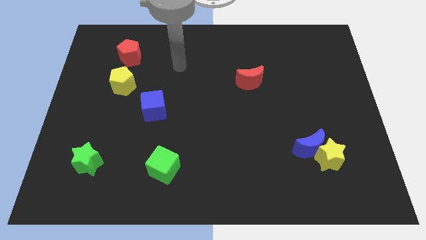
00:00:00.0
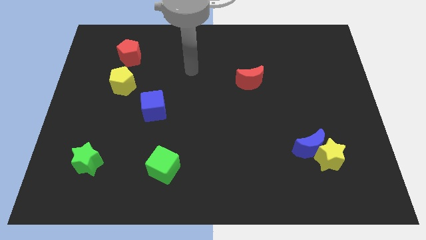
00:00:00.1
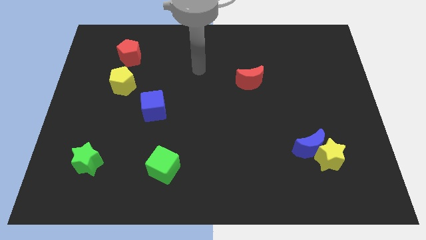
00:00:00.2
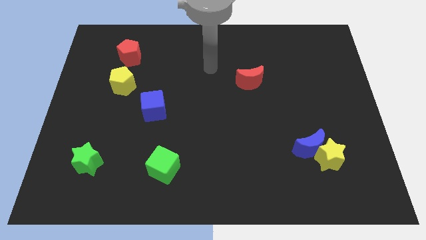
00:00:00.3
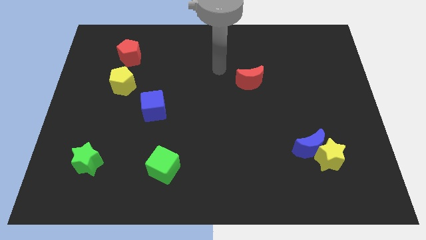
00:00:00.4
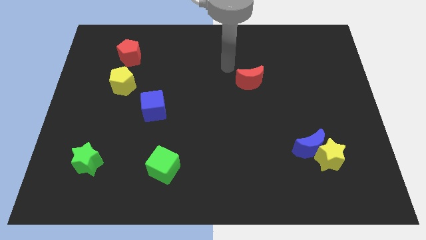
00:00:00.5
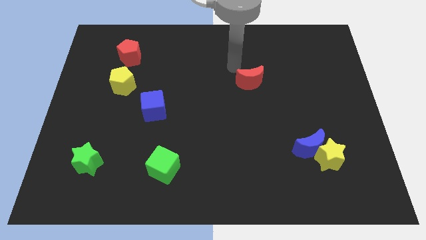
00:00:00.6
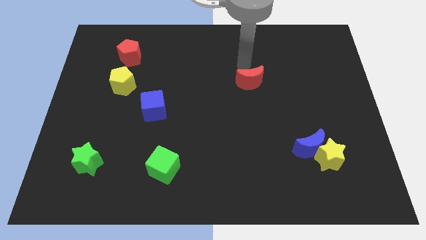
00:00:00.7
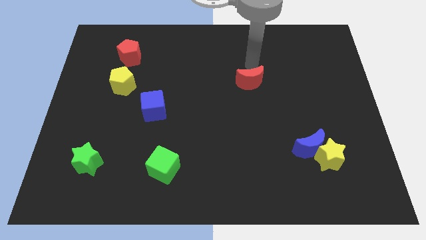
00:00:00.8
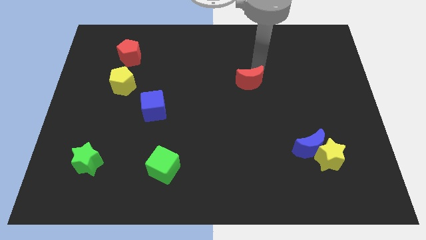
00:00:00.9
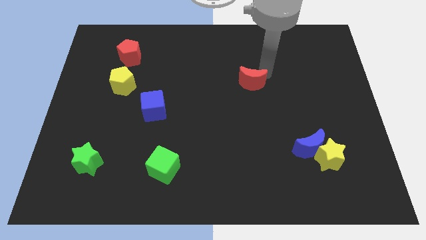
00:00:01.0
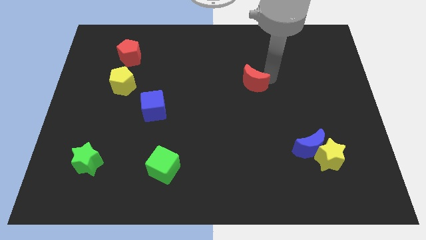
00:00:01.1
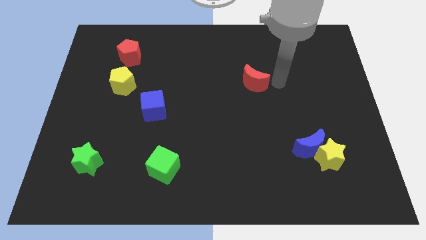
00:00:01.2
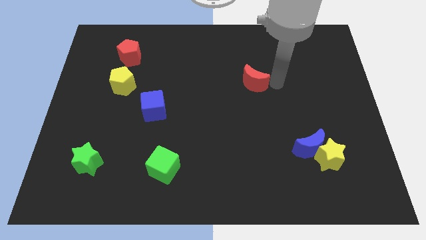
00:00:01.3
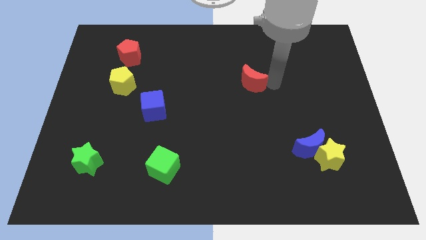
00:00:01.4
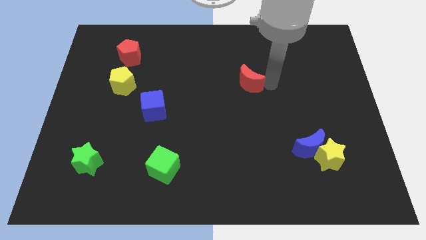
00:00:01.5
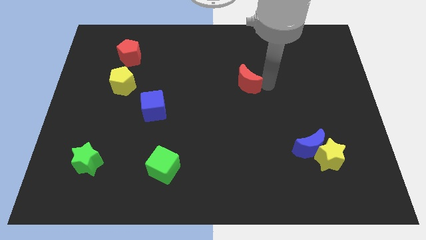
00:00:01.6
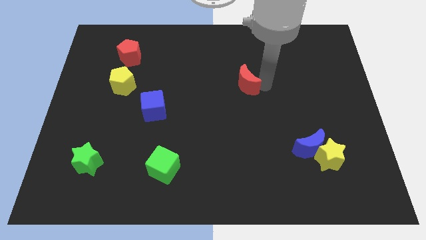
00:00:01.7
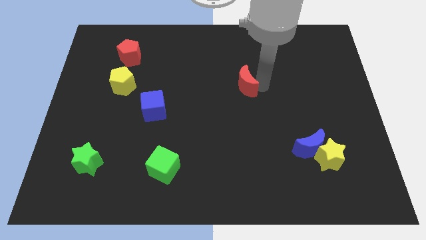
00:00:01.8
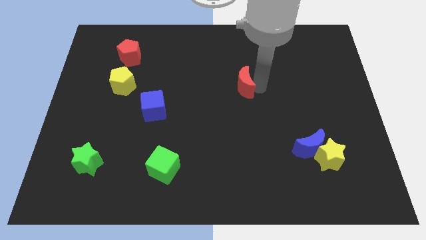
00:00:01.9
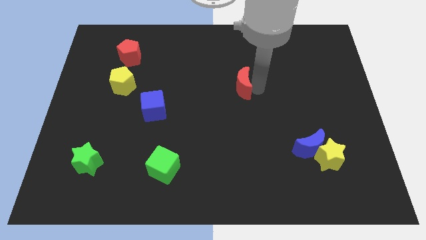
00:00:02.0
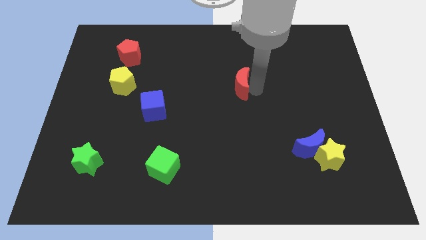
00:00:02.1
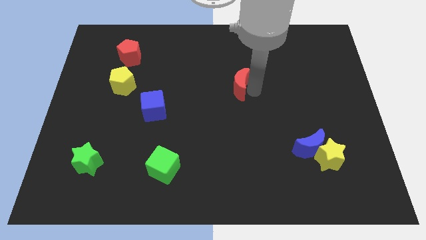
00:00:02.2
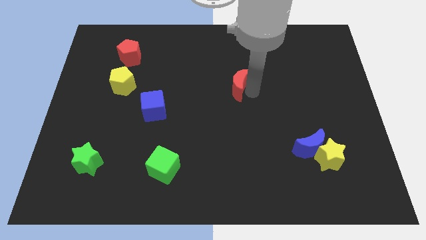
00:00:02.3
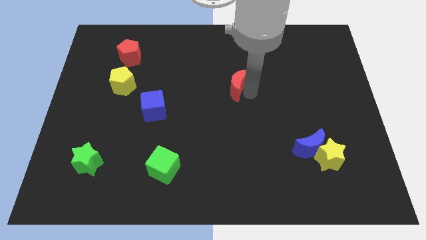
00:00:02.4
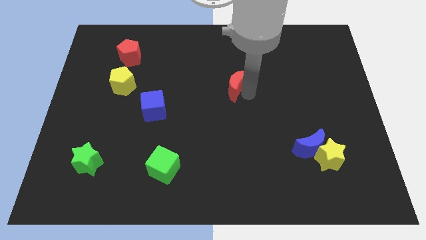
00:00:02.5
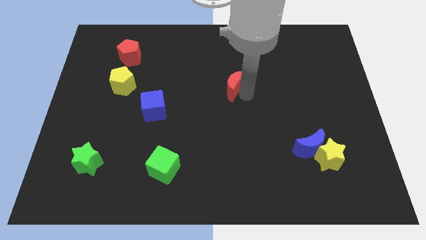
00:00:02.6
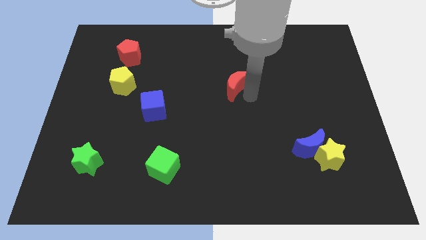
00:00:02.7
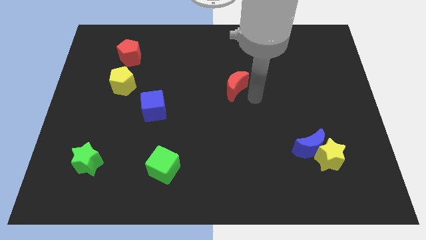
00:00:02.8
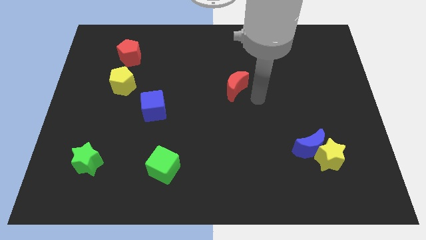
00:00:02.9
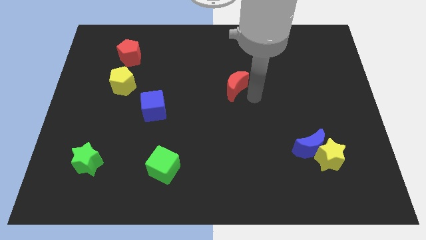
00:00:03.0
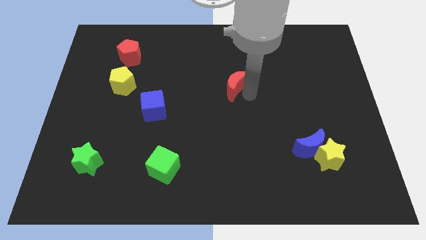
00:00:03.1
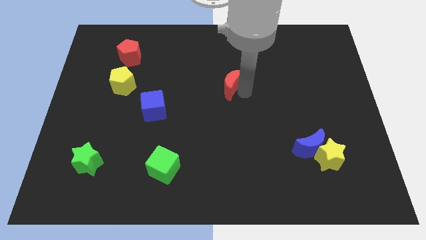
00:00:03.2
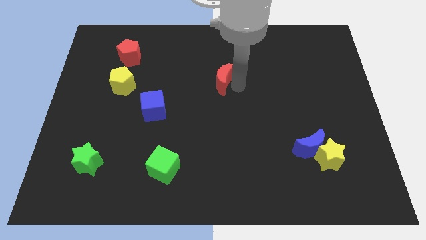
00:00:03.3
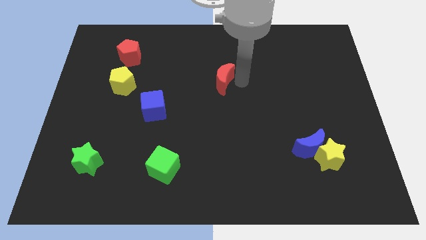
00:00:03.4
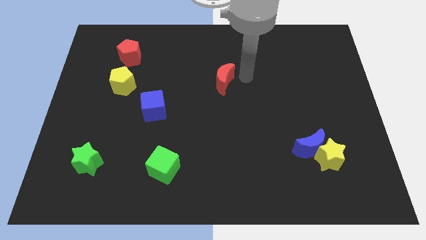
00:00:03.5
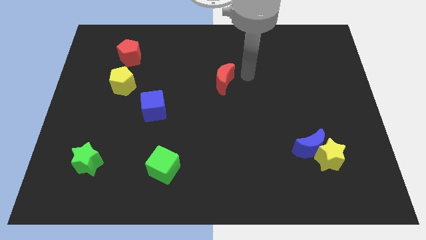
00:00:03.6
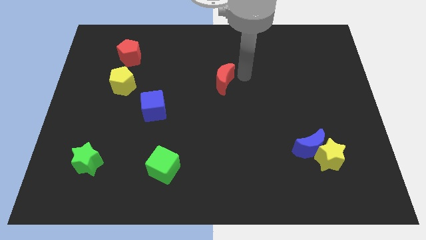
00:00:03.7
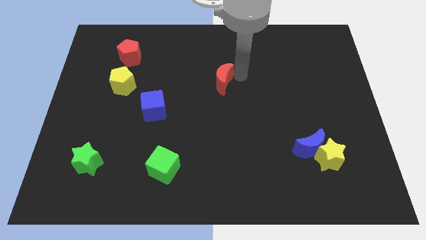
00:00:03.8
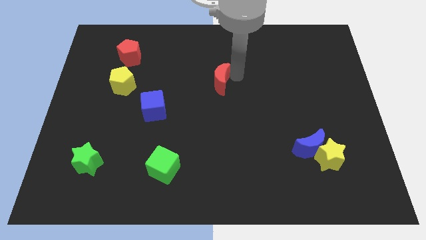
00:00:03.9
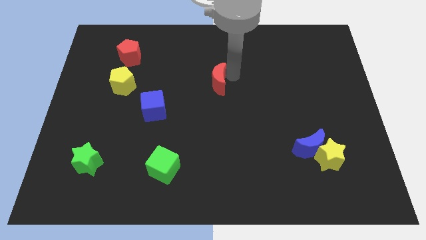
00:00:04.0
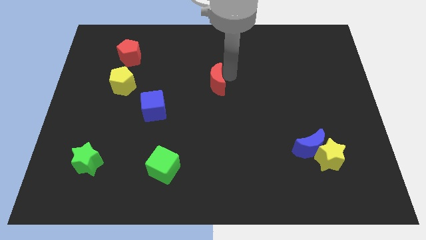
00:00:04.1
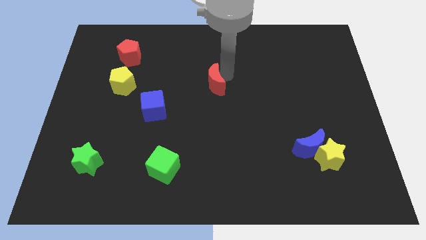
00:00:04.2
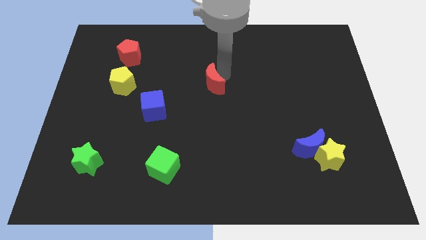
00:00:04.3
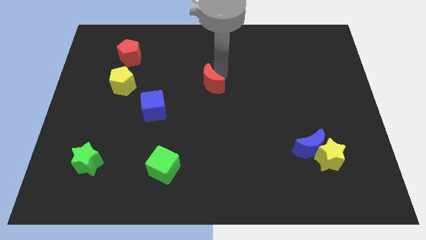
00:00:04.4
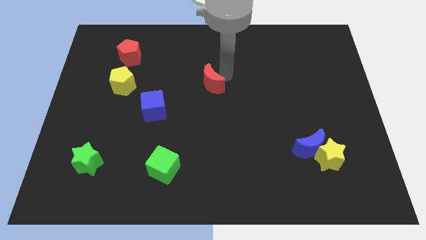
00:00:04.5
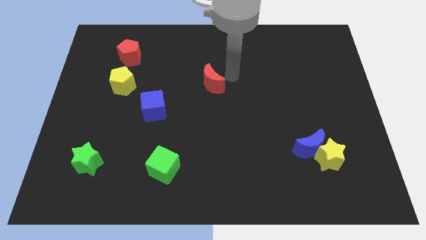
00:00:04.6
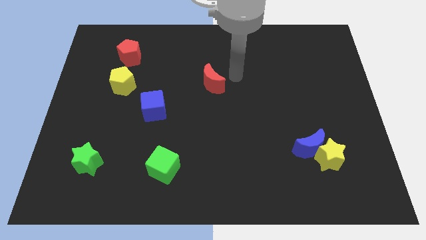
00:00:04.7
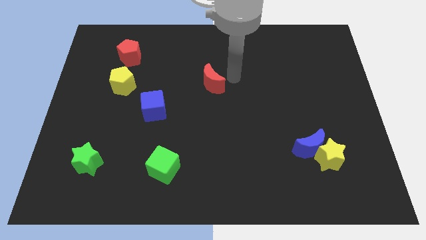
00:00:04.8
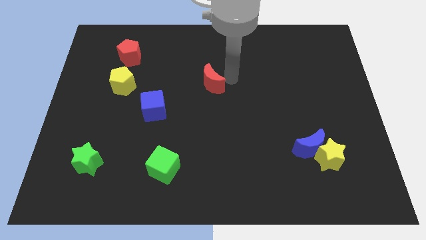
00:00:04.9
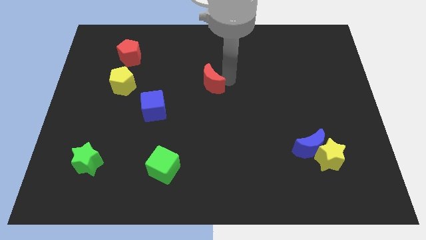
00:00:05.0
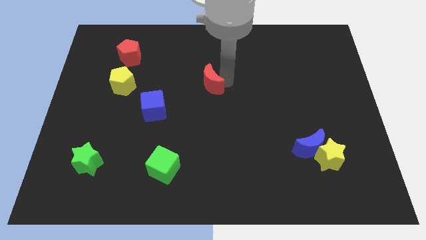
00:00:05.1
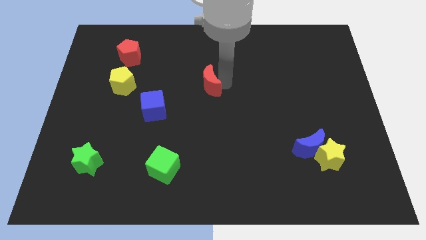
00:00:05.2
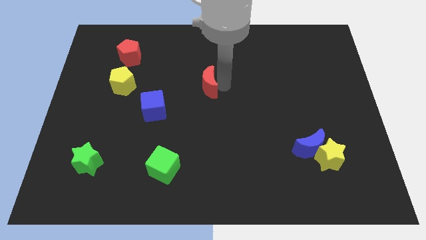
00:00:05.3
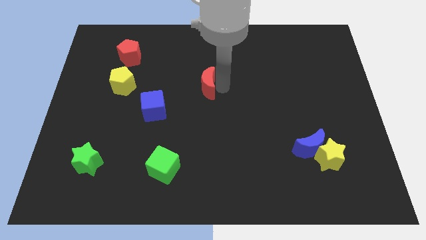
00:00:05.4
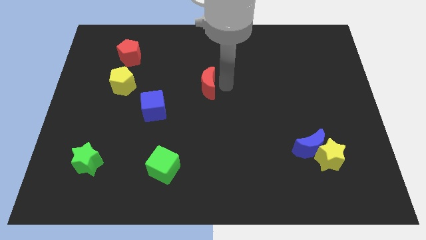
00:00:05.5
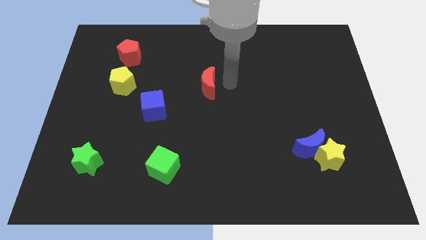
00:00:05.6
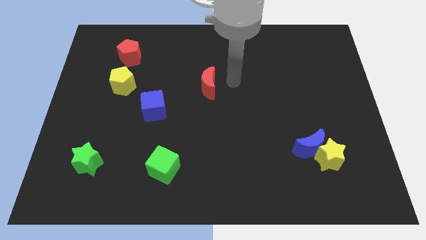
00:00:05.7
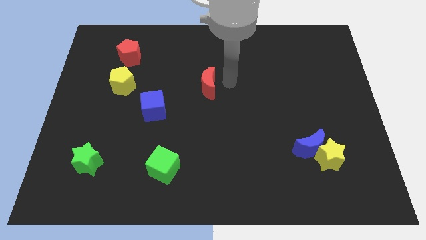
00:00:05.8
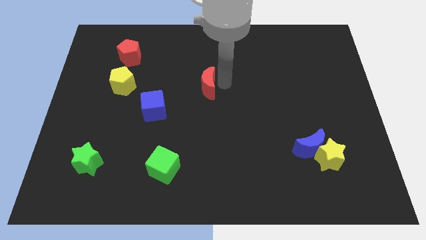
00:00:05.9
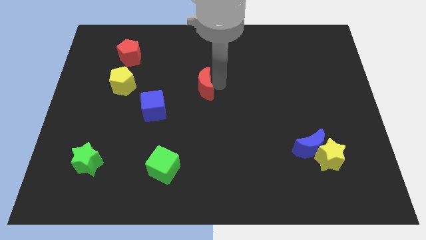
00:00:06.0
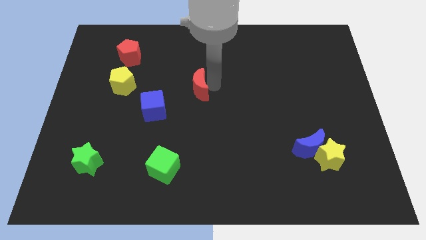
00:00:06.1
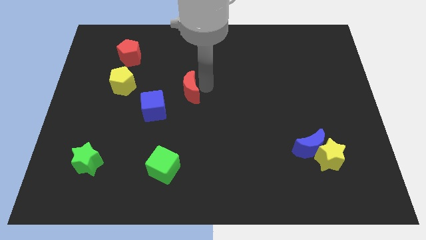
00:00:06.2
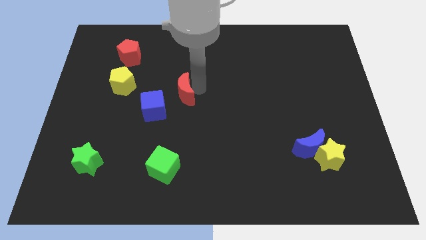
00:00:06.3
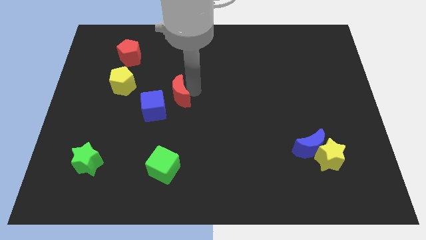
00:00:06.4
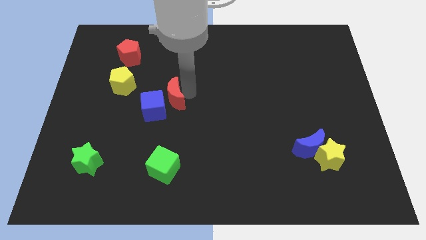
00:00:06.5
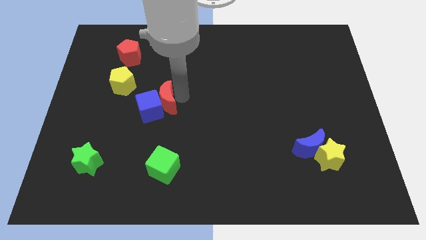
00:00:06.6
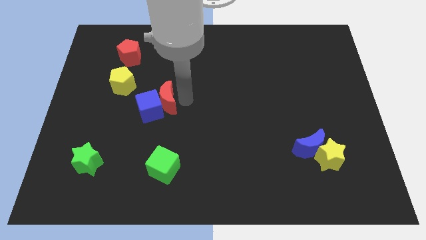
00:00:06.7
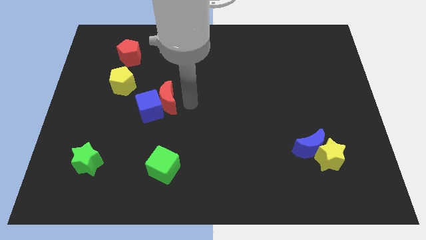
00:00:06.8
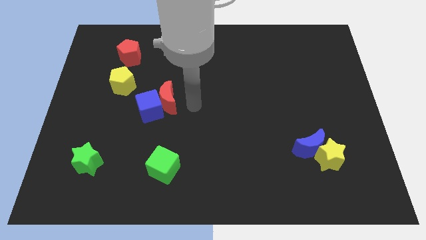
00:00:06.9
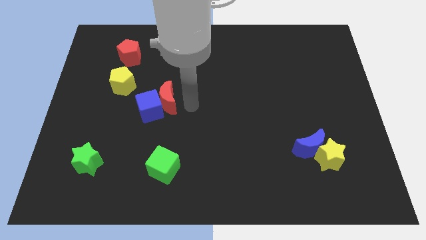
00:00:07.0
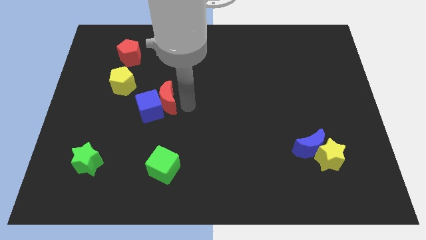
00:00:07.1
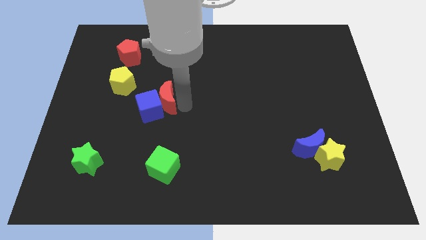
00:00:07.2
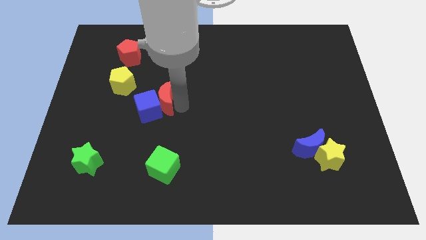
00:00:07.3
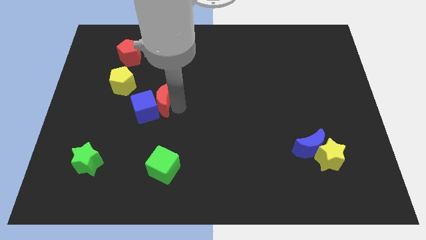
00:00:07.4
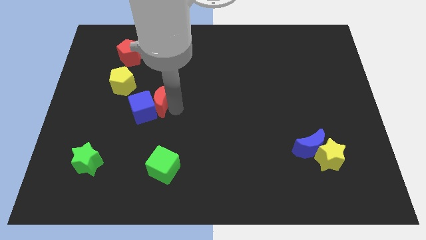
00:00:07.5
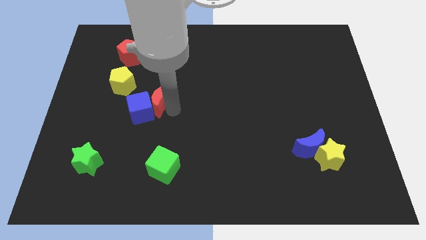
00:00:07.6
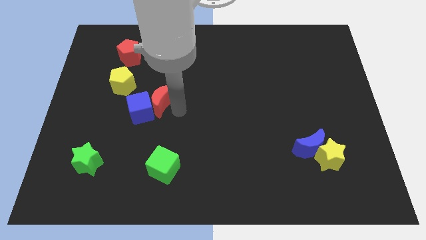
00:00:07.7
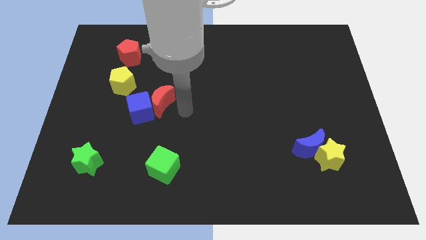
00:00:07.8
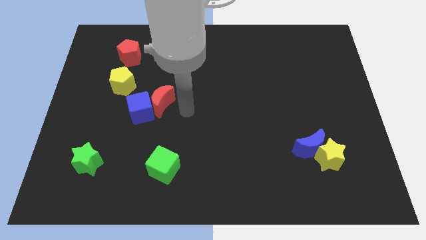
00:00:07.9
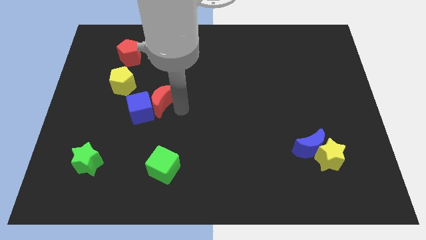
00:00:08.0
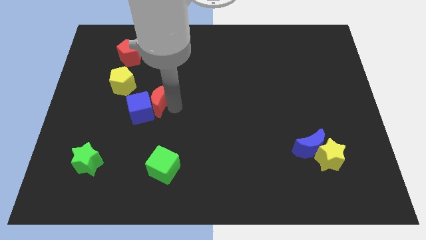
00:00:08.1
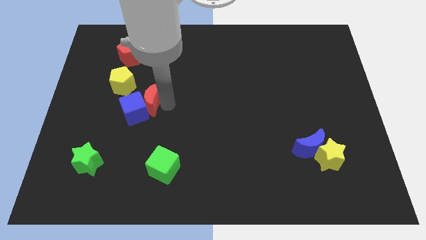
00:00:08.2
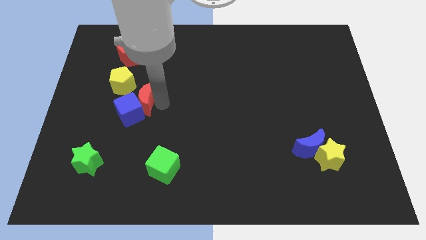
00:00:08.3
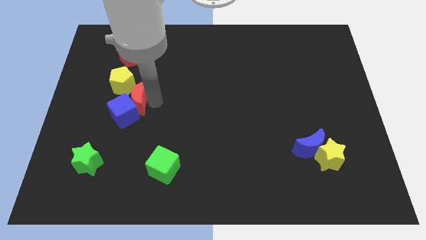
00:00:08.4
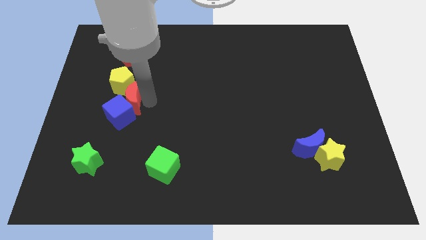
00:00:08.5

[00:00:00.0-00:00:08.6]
push the red moon to the bottom of the red pentagon
